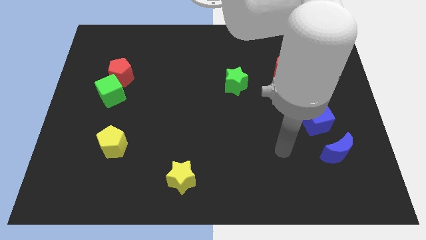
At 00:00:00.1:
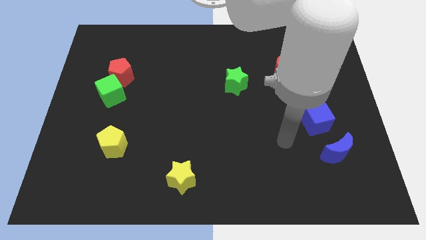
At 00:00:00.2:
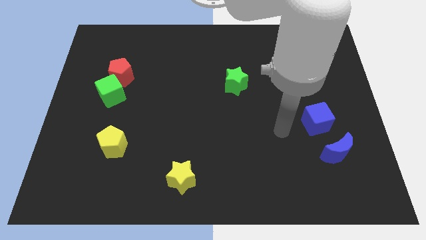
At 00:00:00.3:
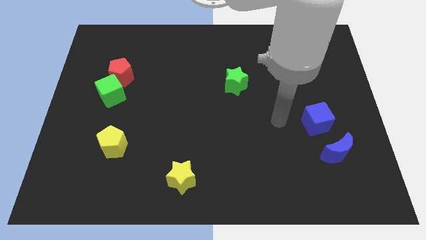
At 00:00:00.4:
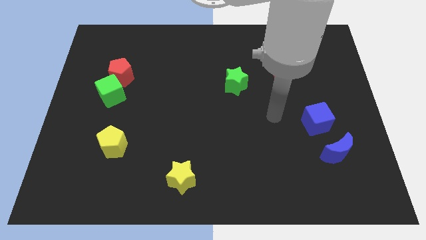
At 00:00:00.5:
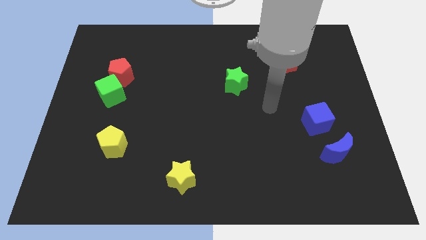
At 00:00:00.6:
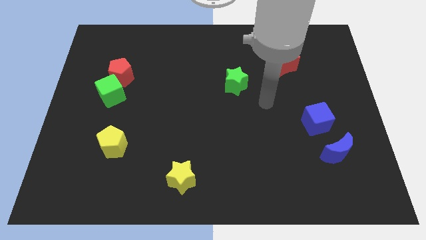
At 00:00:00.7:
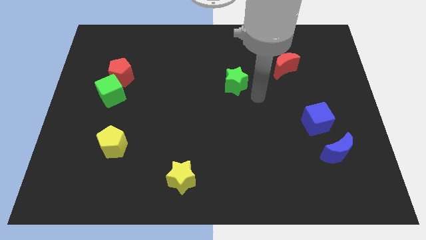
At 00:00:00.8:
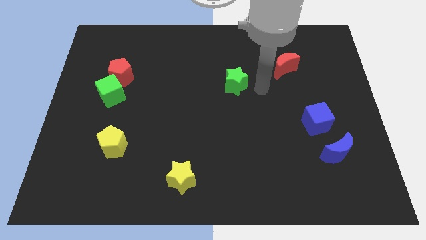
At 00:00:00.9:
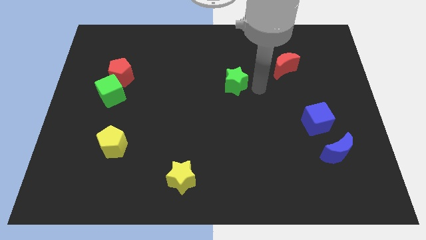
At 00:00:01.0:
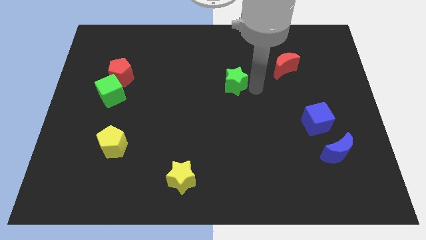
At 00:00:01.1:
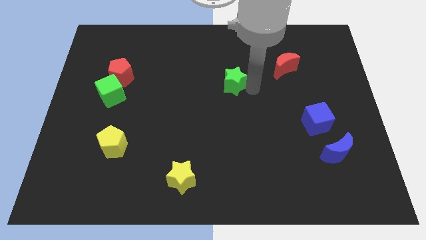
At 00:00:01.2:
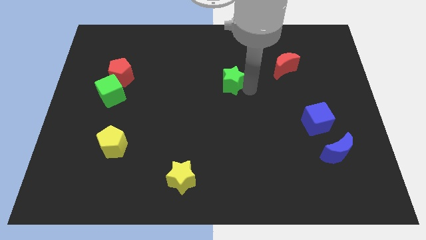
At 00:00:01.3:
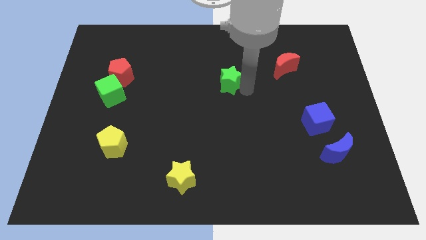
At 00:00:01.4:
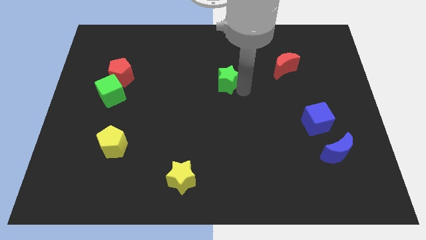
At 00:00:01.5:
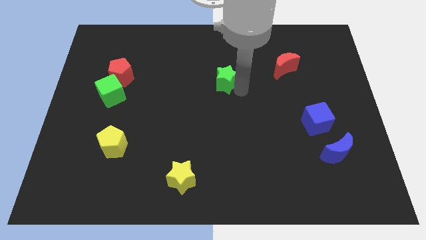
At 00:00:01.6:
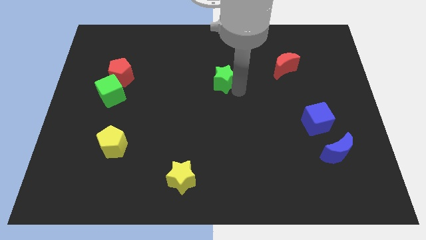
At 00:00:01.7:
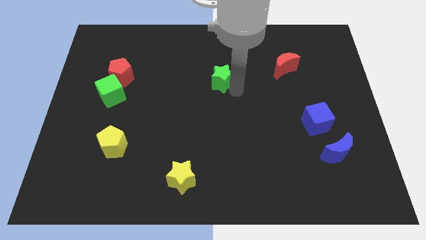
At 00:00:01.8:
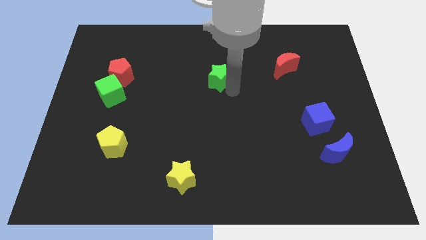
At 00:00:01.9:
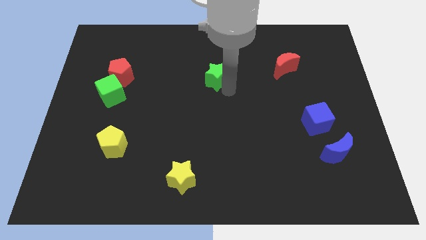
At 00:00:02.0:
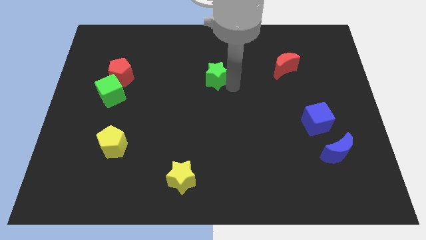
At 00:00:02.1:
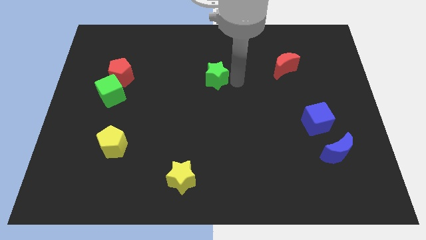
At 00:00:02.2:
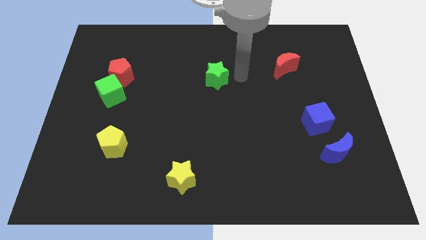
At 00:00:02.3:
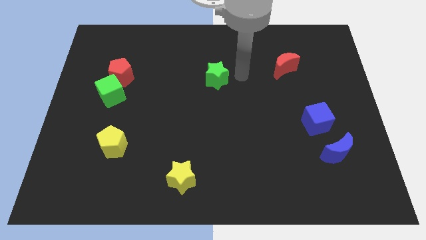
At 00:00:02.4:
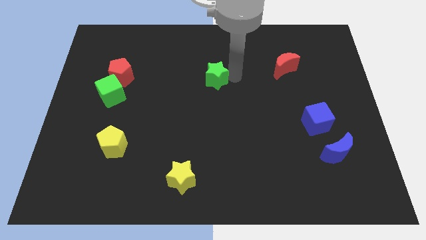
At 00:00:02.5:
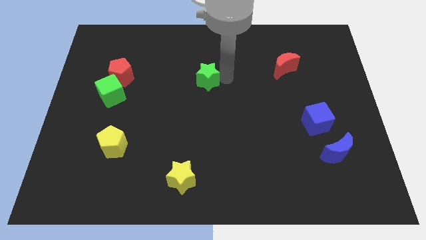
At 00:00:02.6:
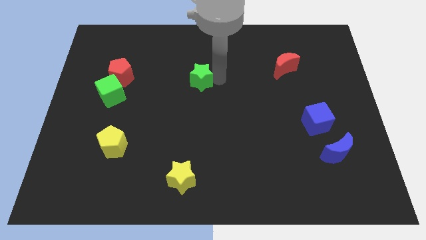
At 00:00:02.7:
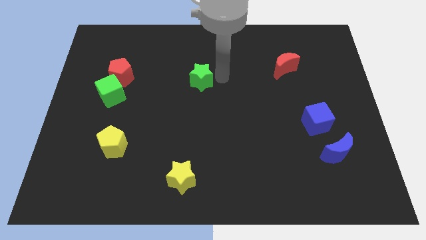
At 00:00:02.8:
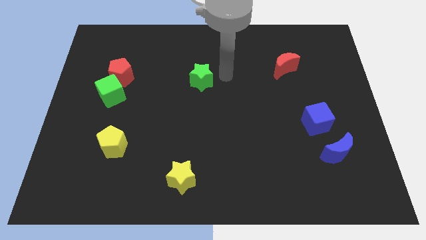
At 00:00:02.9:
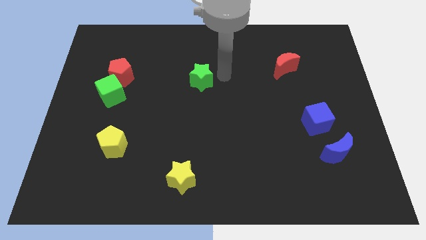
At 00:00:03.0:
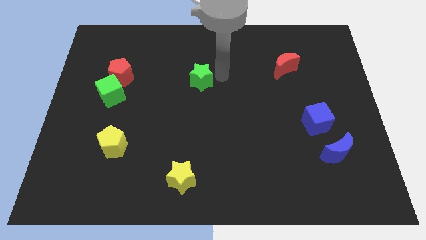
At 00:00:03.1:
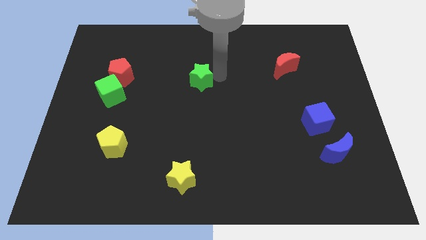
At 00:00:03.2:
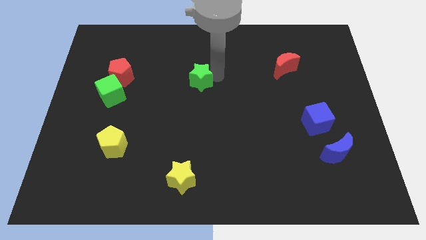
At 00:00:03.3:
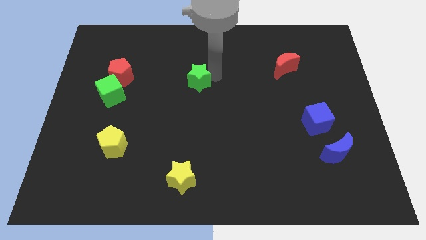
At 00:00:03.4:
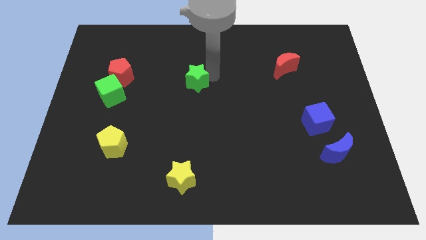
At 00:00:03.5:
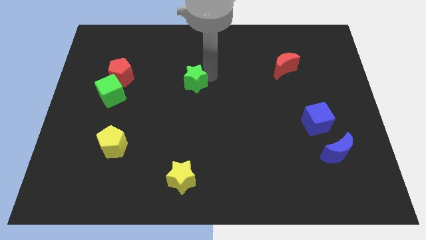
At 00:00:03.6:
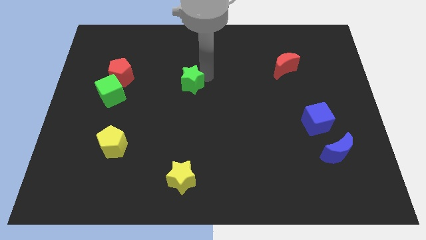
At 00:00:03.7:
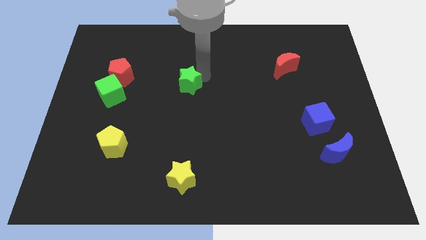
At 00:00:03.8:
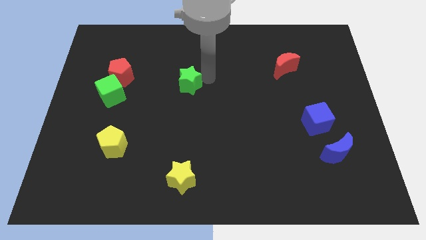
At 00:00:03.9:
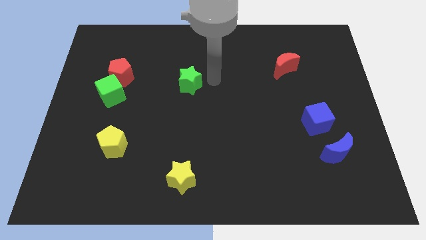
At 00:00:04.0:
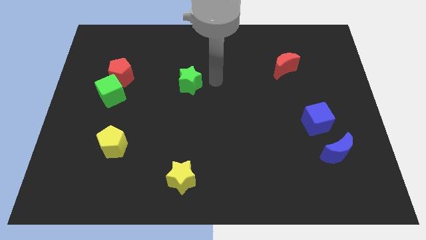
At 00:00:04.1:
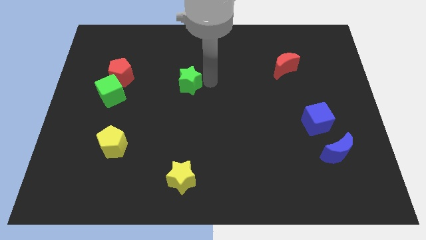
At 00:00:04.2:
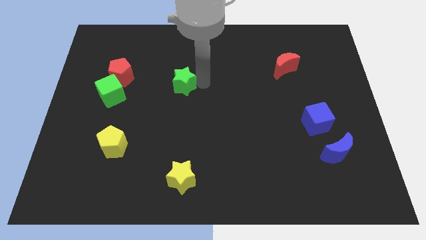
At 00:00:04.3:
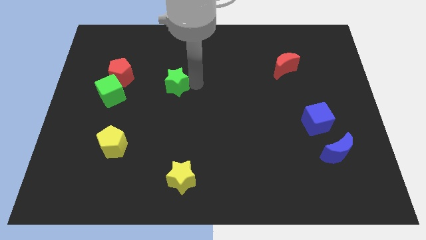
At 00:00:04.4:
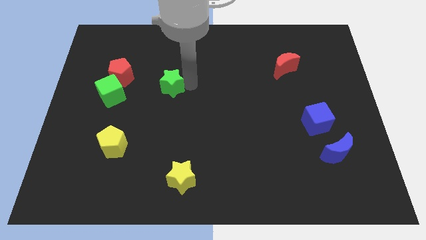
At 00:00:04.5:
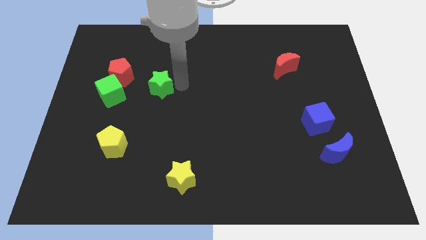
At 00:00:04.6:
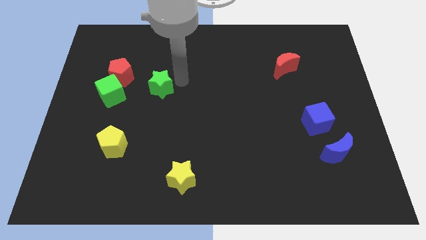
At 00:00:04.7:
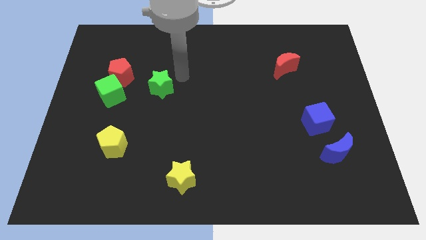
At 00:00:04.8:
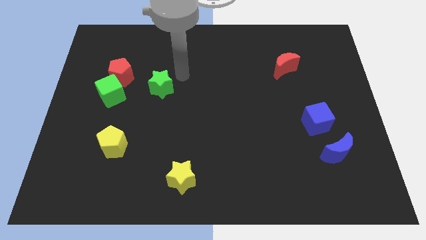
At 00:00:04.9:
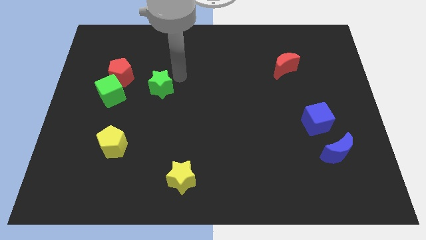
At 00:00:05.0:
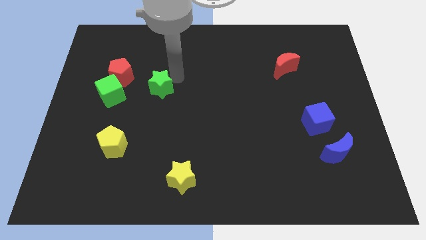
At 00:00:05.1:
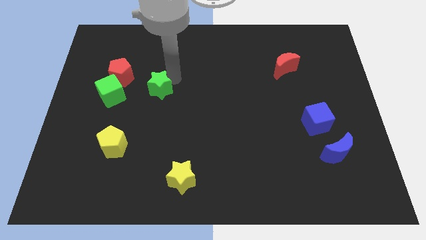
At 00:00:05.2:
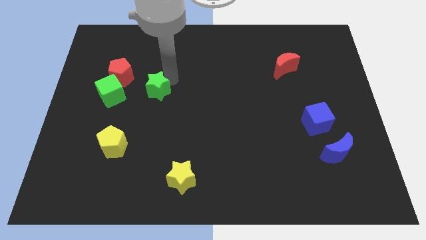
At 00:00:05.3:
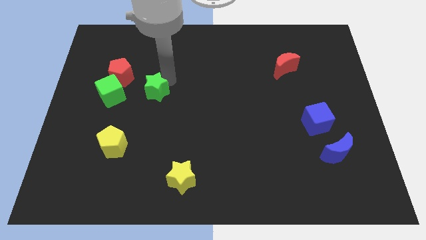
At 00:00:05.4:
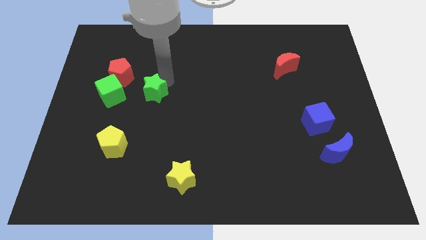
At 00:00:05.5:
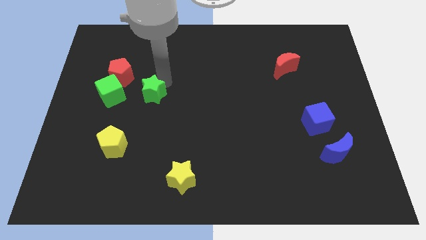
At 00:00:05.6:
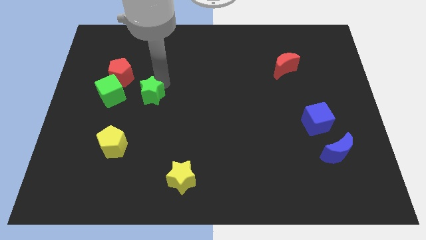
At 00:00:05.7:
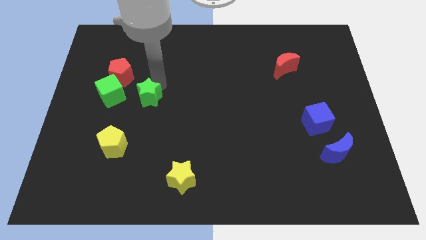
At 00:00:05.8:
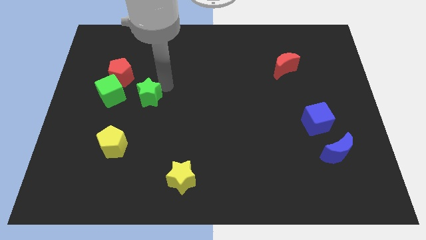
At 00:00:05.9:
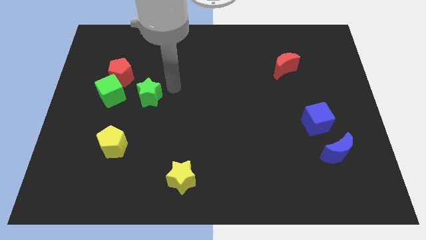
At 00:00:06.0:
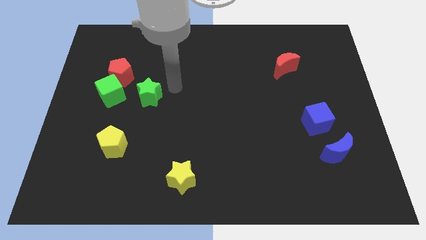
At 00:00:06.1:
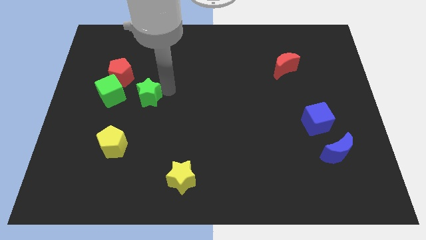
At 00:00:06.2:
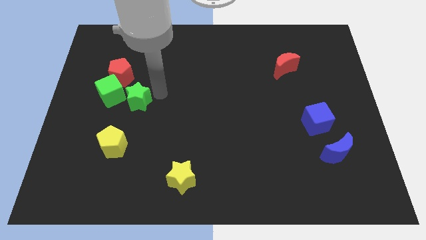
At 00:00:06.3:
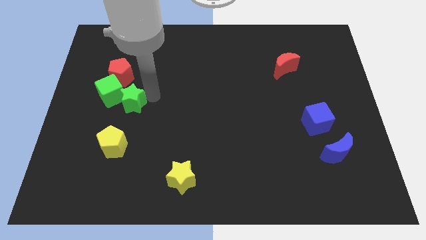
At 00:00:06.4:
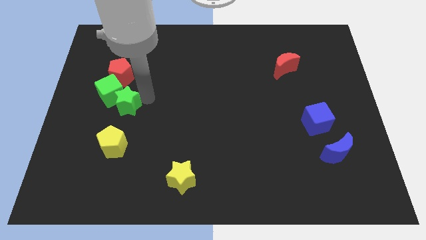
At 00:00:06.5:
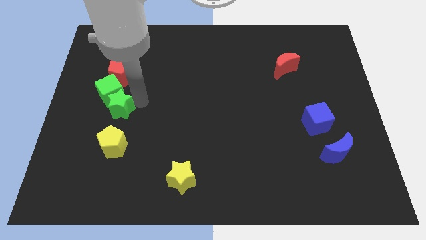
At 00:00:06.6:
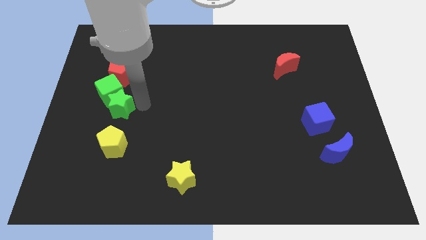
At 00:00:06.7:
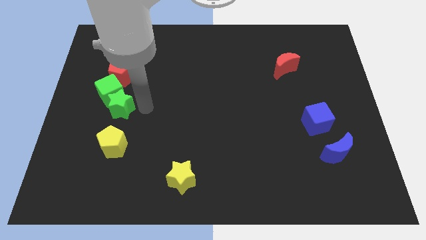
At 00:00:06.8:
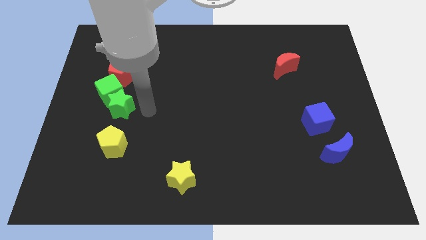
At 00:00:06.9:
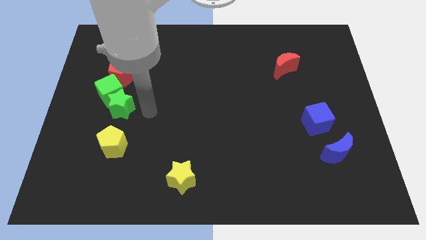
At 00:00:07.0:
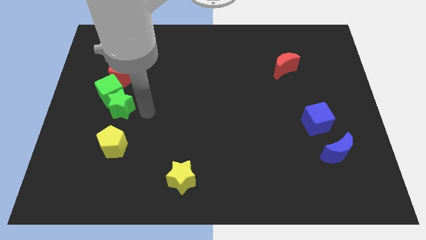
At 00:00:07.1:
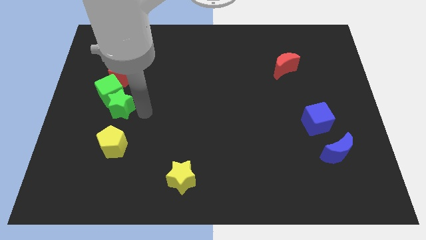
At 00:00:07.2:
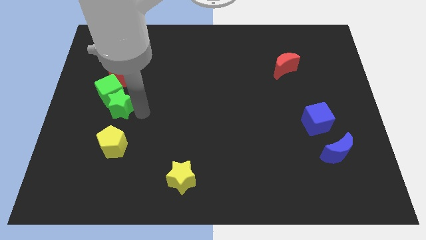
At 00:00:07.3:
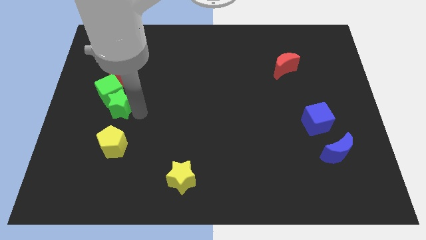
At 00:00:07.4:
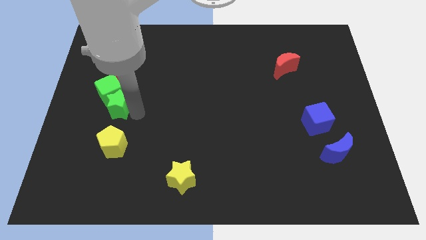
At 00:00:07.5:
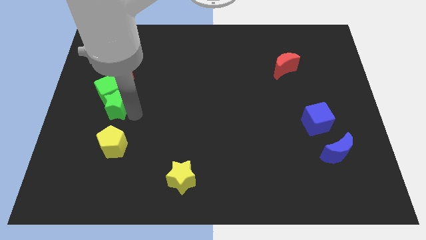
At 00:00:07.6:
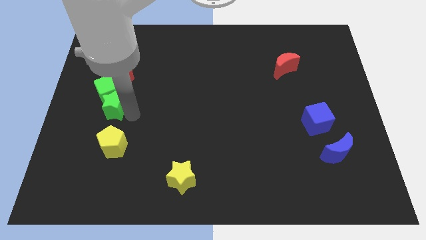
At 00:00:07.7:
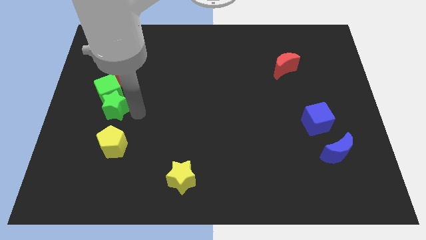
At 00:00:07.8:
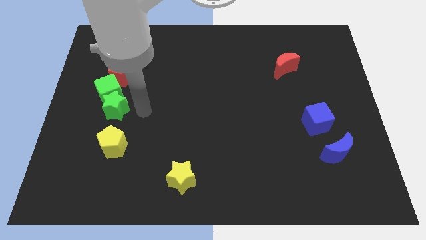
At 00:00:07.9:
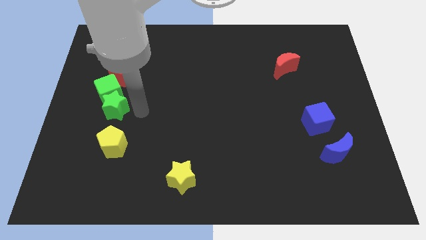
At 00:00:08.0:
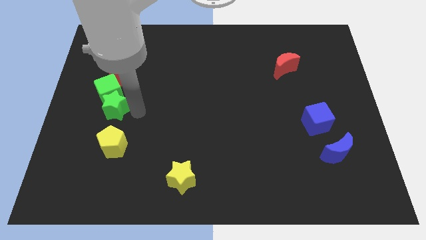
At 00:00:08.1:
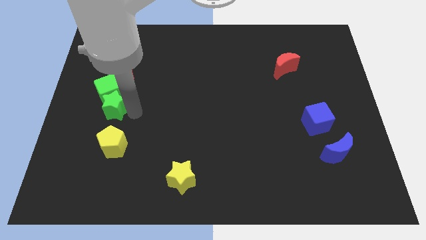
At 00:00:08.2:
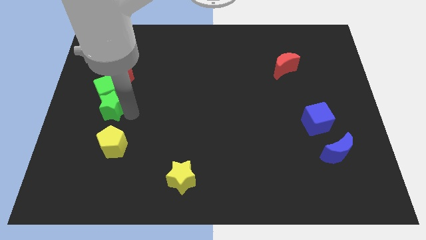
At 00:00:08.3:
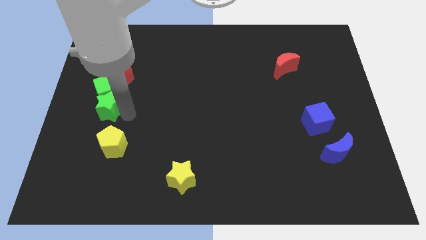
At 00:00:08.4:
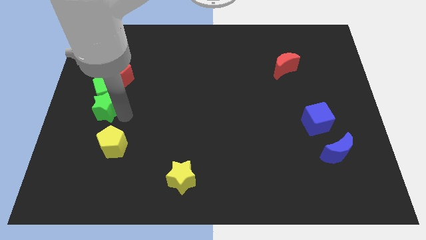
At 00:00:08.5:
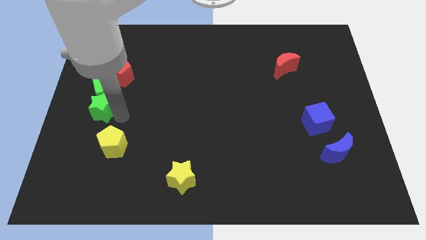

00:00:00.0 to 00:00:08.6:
slide the green star to the center left
